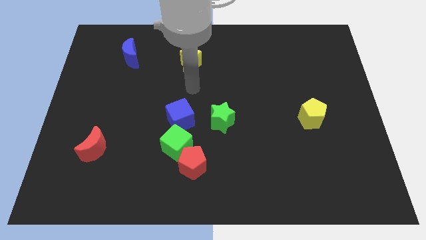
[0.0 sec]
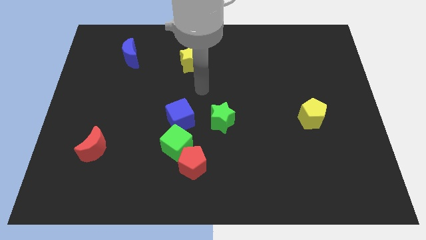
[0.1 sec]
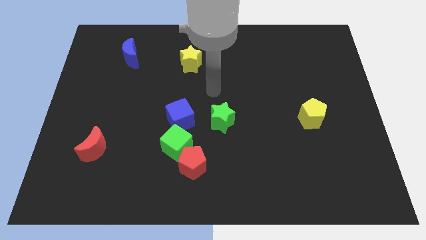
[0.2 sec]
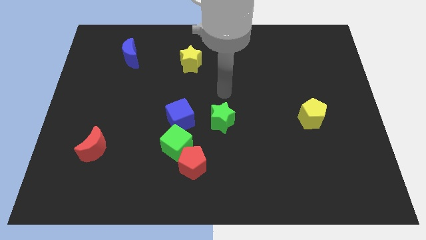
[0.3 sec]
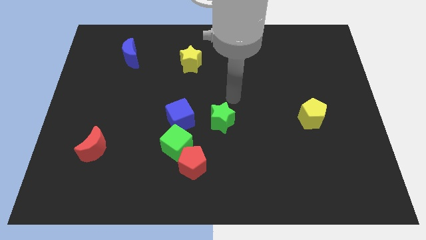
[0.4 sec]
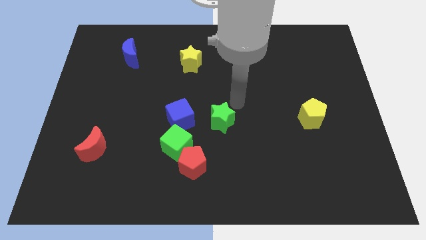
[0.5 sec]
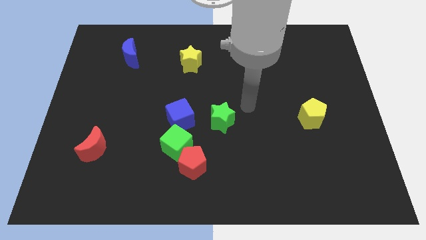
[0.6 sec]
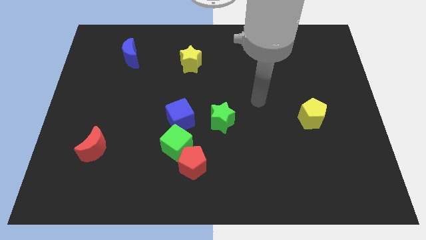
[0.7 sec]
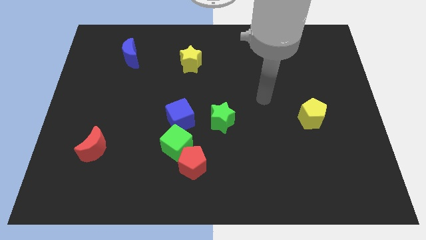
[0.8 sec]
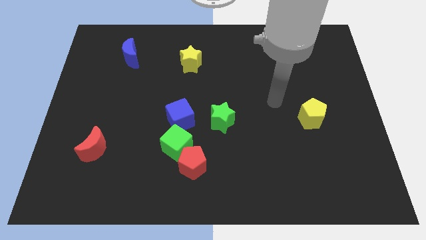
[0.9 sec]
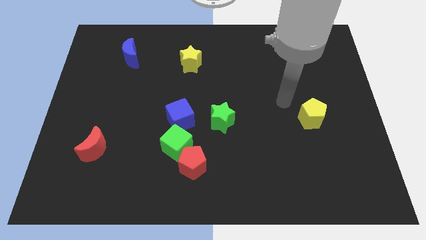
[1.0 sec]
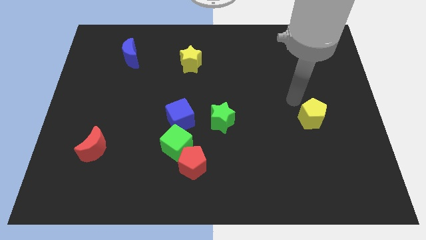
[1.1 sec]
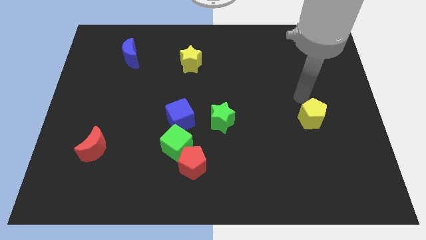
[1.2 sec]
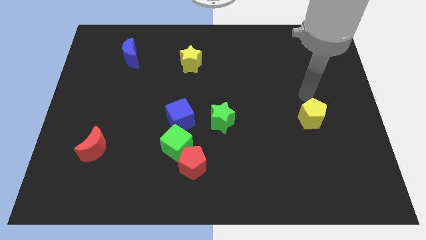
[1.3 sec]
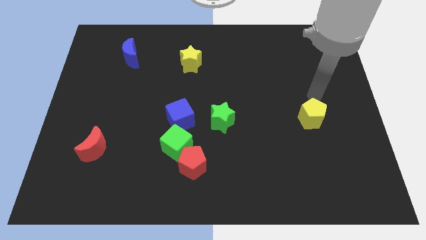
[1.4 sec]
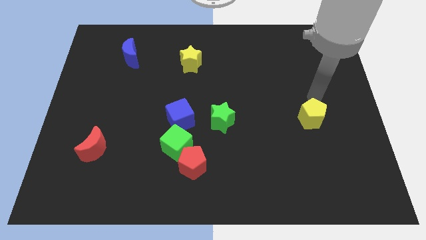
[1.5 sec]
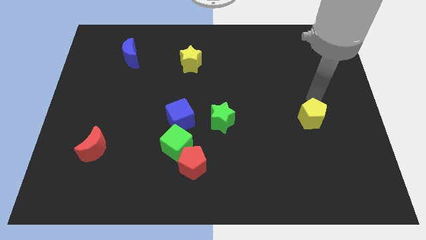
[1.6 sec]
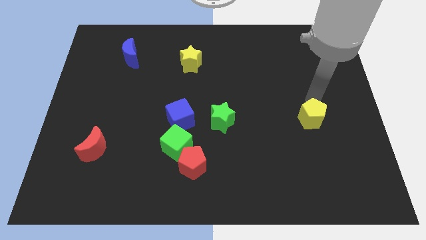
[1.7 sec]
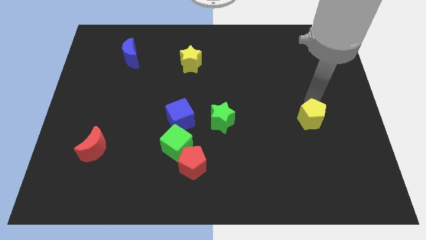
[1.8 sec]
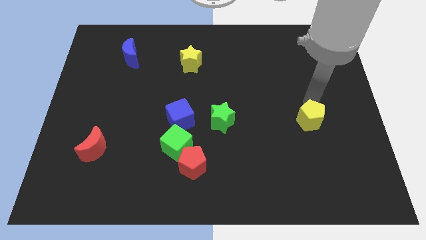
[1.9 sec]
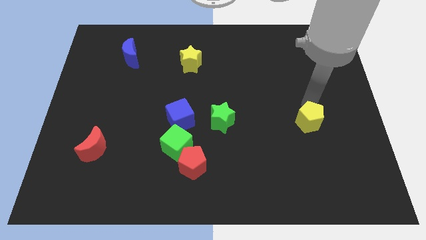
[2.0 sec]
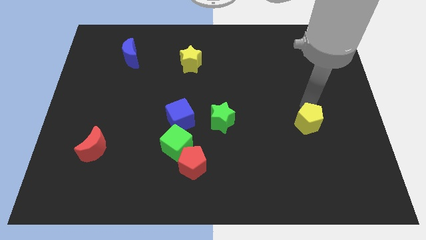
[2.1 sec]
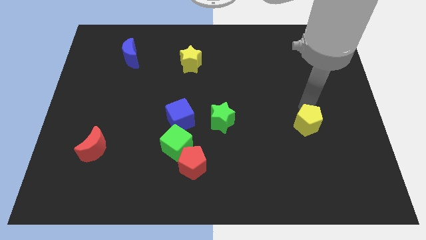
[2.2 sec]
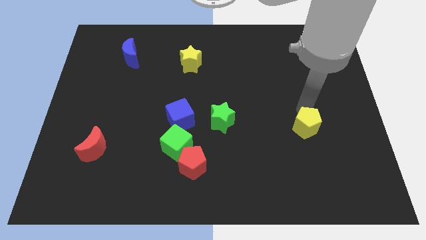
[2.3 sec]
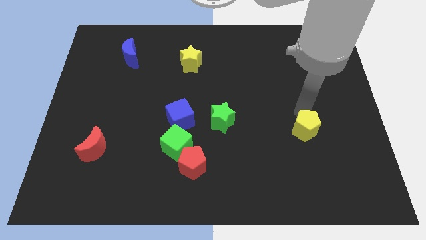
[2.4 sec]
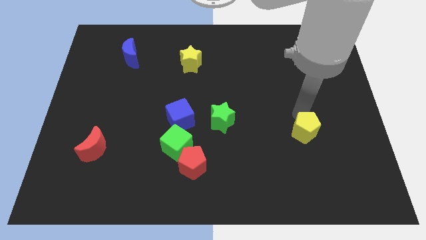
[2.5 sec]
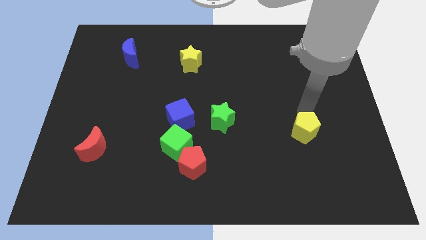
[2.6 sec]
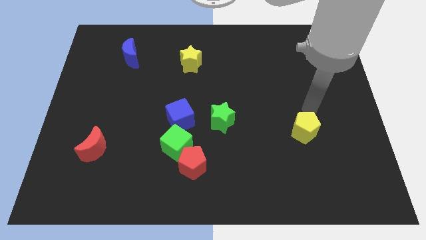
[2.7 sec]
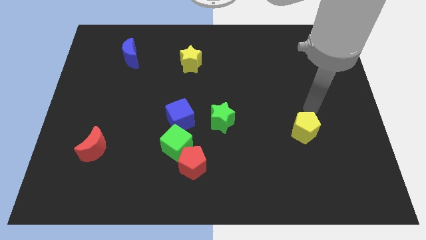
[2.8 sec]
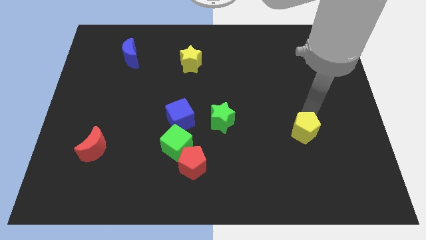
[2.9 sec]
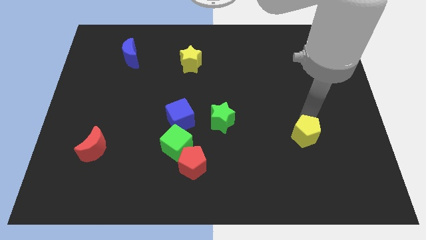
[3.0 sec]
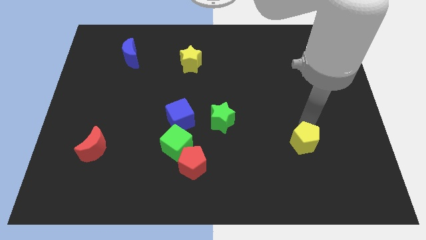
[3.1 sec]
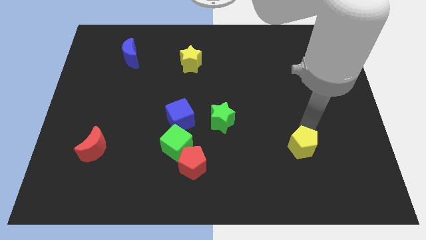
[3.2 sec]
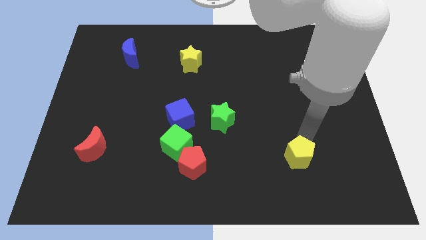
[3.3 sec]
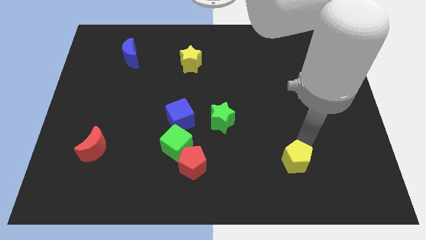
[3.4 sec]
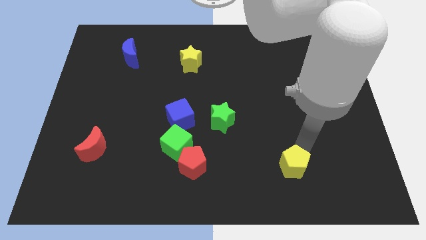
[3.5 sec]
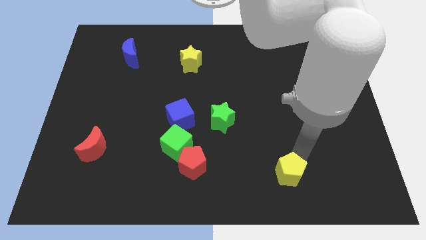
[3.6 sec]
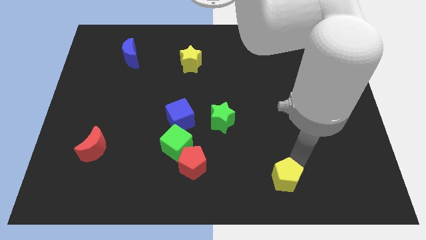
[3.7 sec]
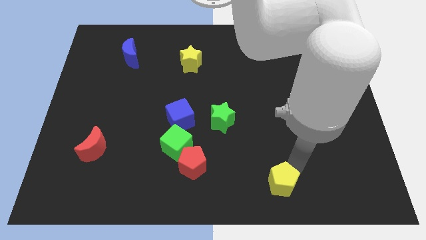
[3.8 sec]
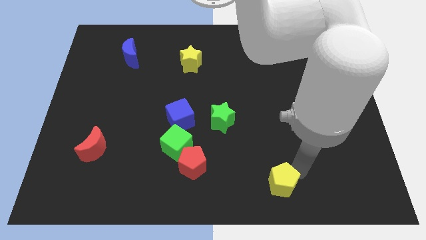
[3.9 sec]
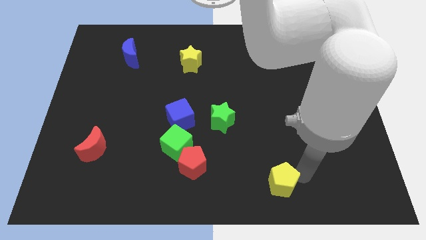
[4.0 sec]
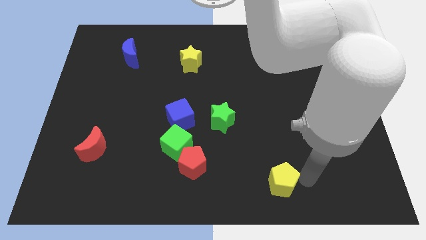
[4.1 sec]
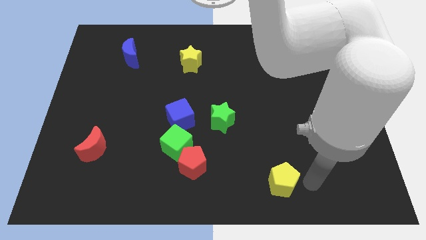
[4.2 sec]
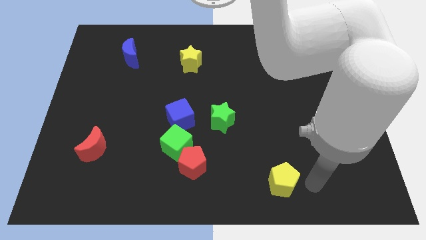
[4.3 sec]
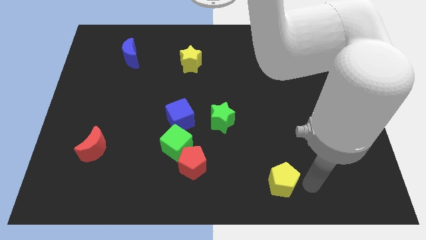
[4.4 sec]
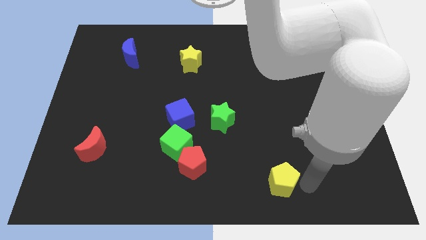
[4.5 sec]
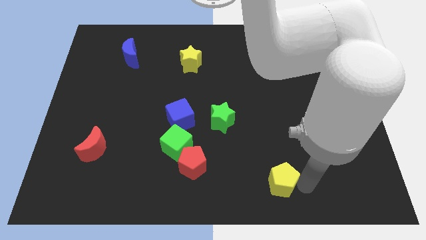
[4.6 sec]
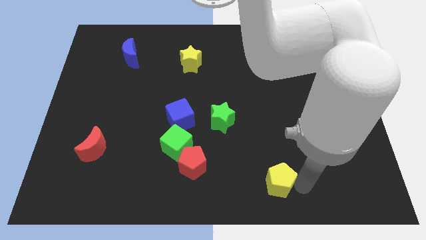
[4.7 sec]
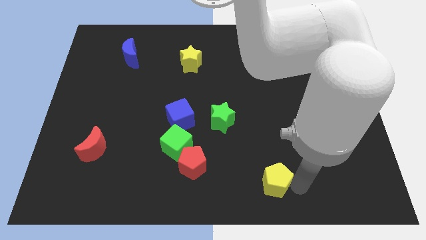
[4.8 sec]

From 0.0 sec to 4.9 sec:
push the yellow pentagon to the bottom

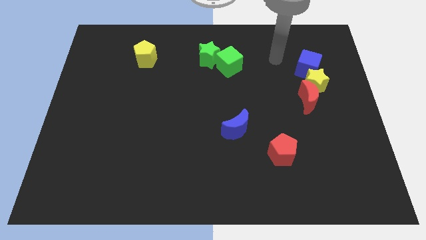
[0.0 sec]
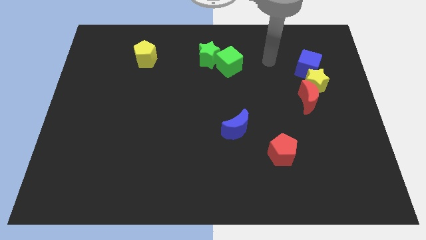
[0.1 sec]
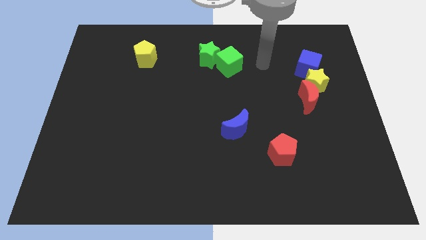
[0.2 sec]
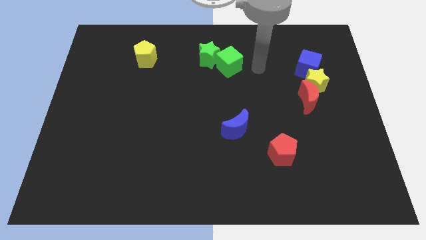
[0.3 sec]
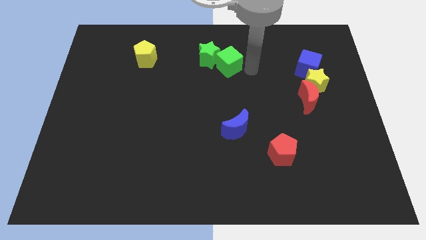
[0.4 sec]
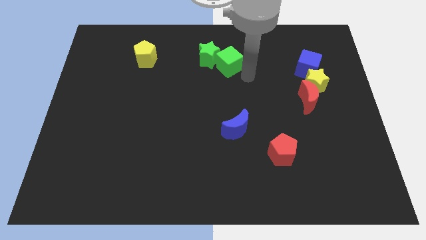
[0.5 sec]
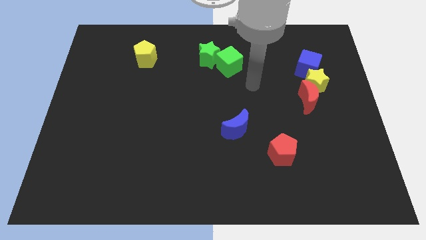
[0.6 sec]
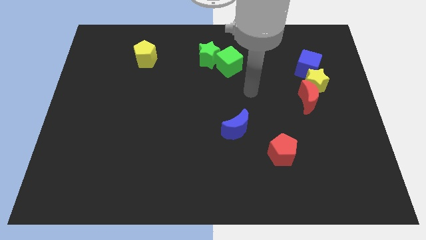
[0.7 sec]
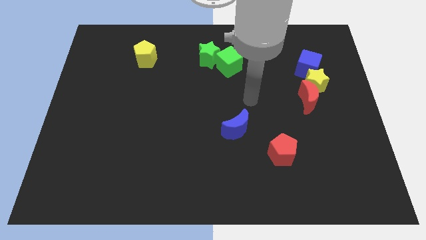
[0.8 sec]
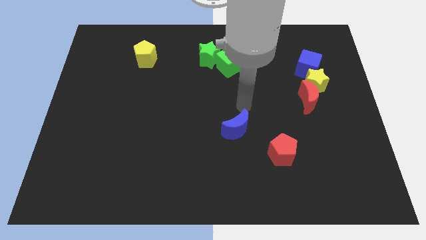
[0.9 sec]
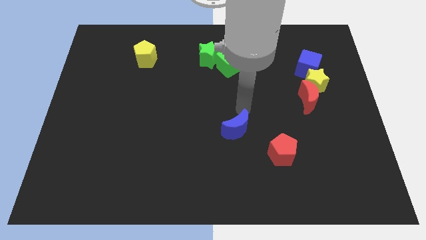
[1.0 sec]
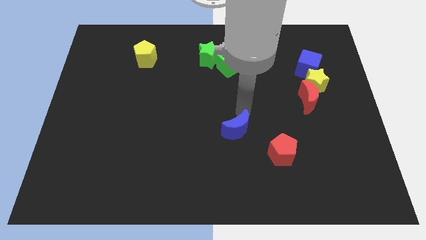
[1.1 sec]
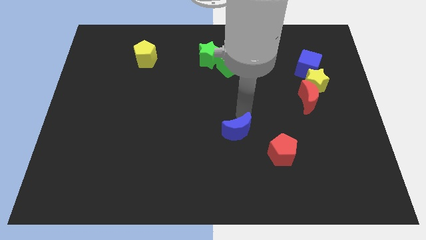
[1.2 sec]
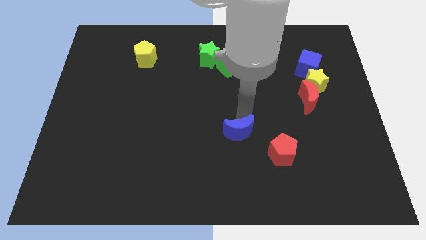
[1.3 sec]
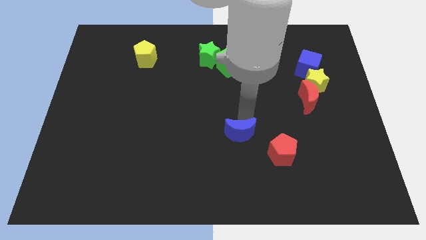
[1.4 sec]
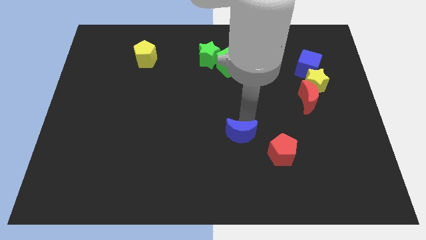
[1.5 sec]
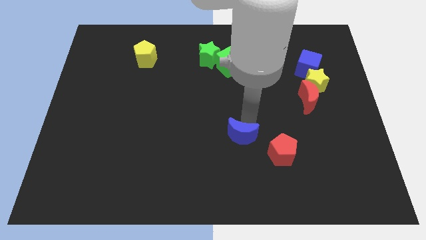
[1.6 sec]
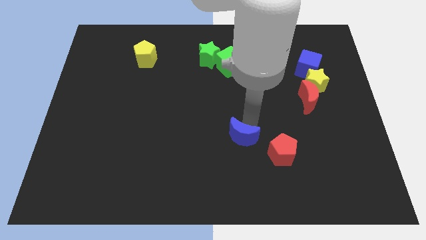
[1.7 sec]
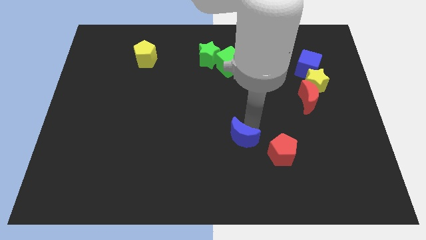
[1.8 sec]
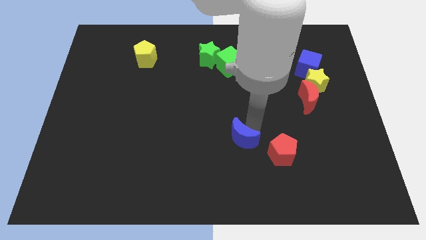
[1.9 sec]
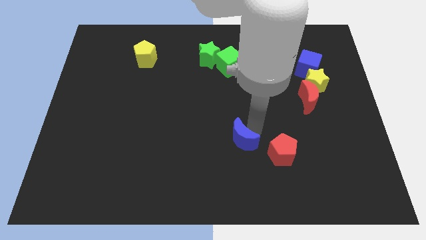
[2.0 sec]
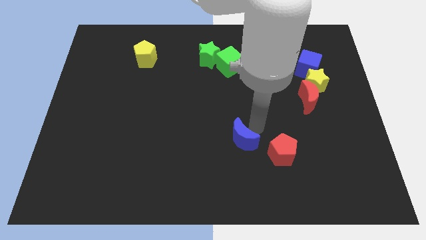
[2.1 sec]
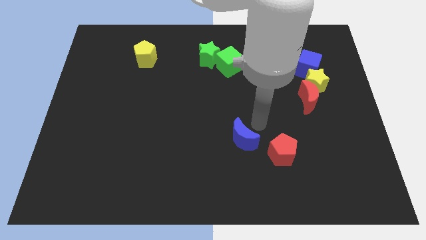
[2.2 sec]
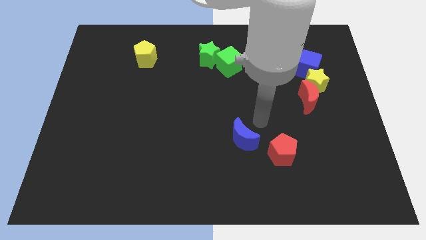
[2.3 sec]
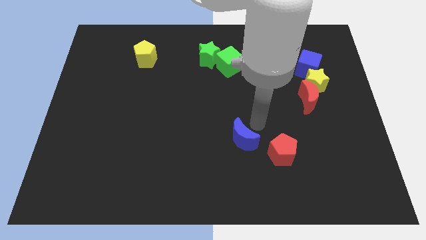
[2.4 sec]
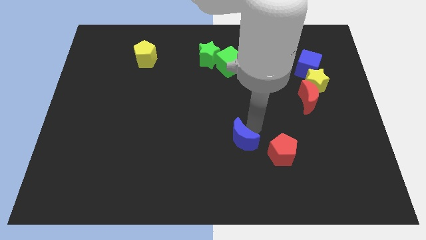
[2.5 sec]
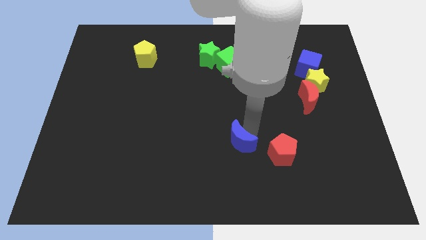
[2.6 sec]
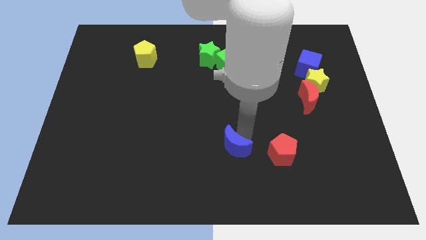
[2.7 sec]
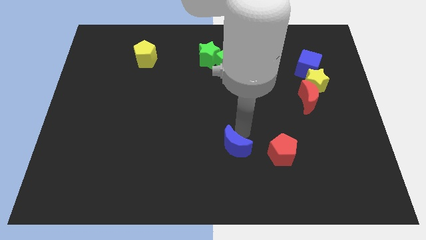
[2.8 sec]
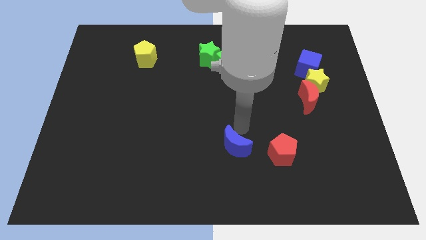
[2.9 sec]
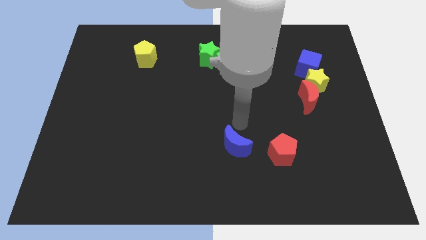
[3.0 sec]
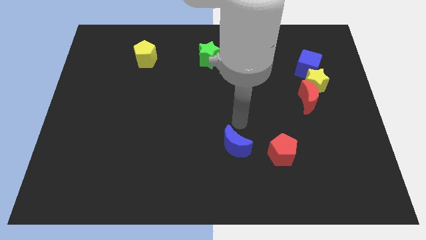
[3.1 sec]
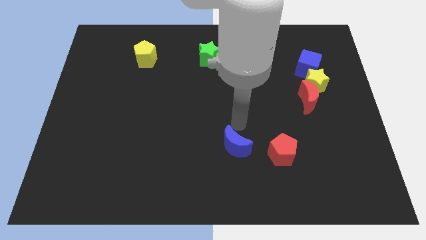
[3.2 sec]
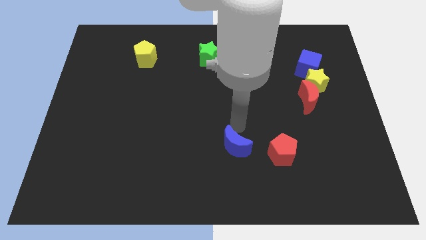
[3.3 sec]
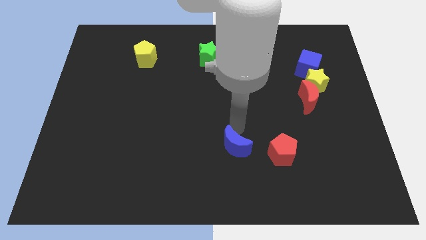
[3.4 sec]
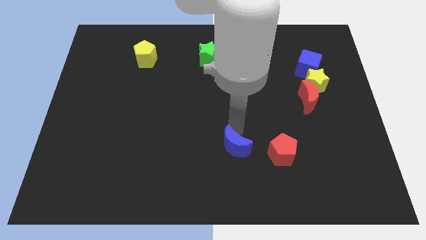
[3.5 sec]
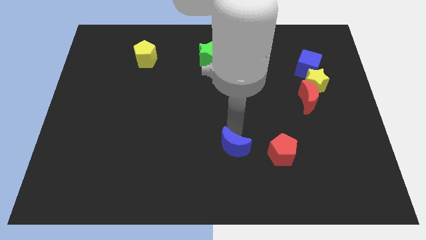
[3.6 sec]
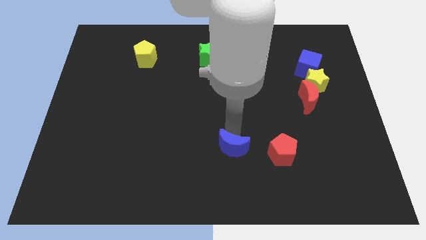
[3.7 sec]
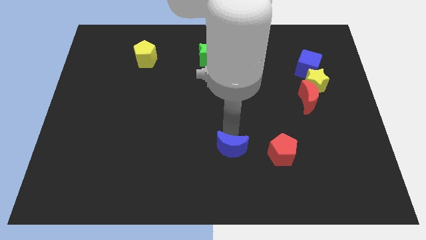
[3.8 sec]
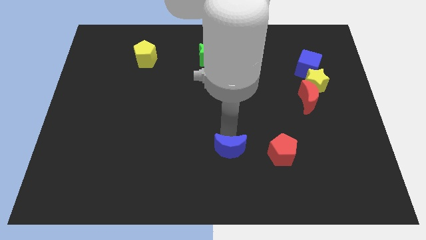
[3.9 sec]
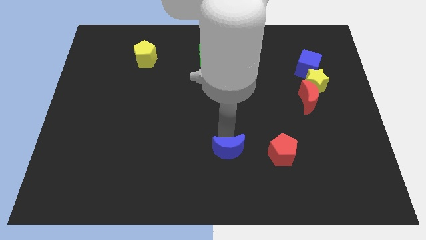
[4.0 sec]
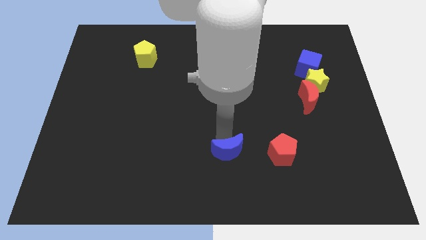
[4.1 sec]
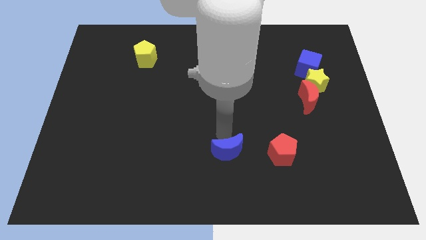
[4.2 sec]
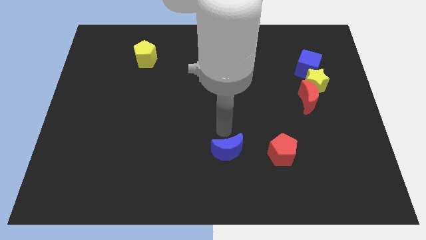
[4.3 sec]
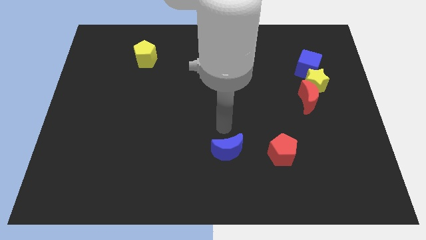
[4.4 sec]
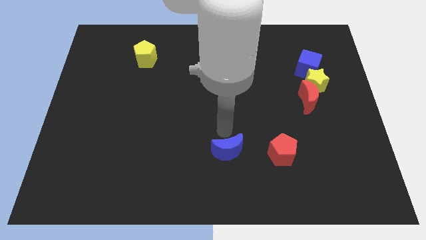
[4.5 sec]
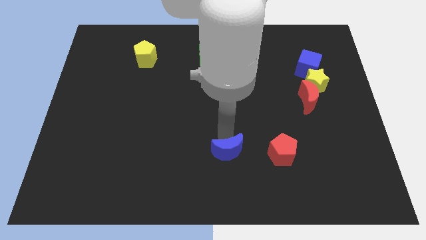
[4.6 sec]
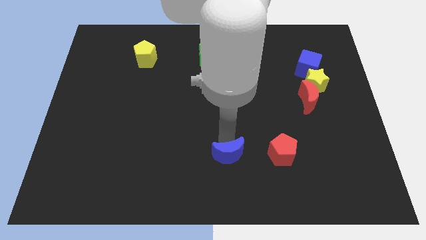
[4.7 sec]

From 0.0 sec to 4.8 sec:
push the blue moon to the bottom side
